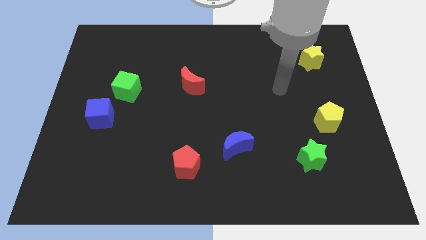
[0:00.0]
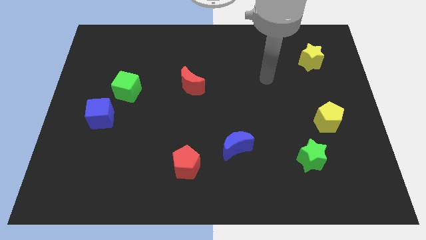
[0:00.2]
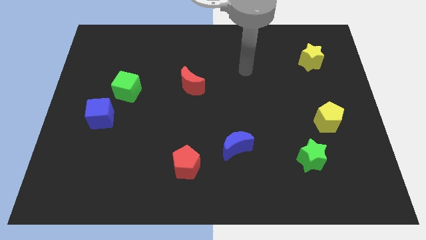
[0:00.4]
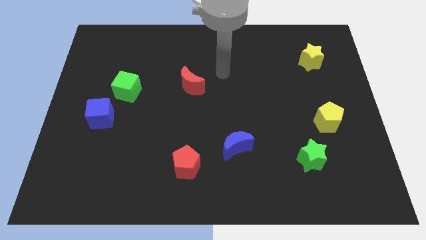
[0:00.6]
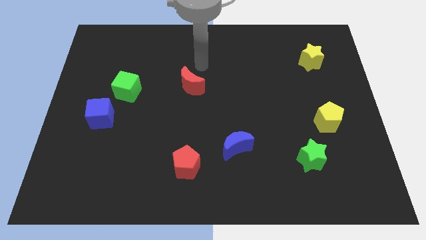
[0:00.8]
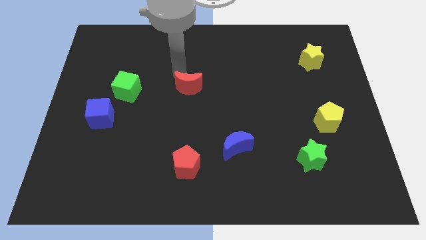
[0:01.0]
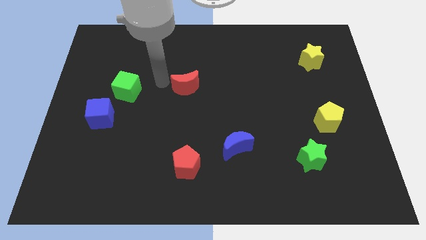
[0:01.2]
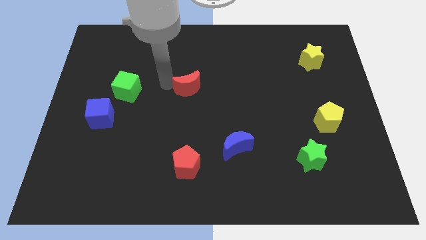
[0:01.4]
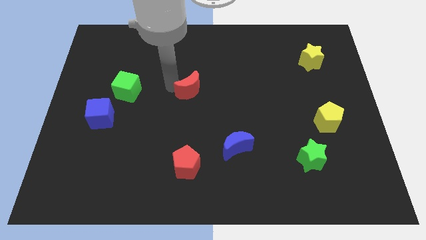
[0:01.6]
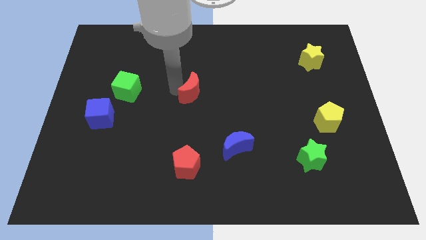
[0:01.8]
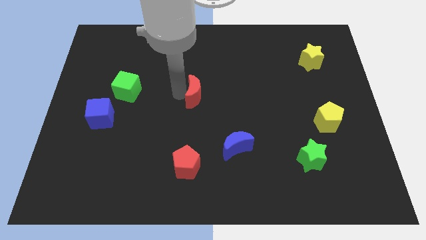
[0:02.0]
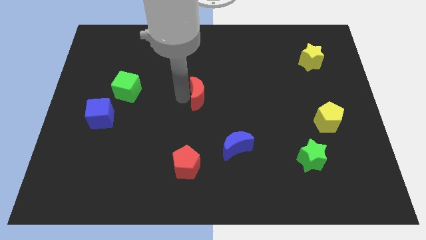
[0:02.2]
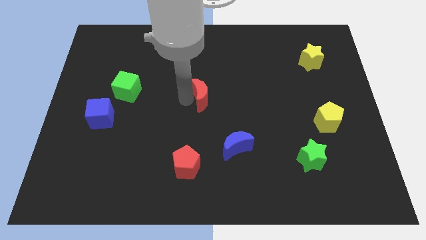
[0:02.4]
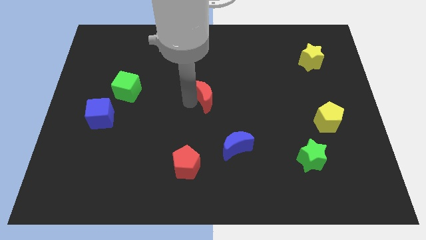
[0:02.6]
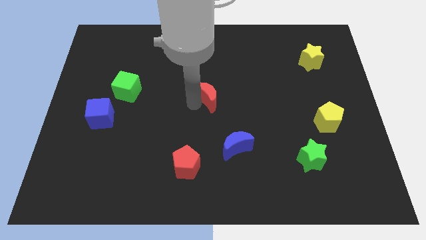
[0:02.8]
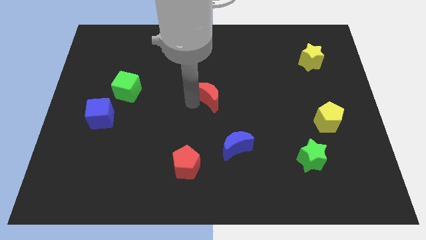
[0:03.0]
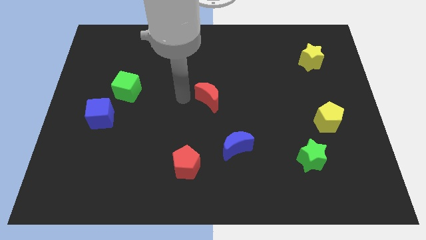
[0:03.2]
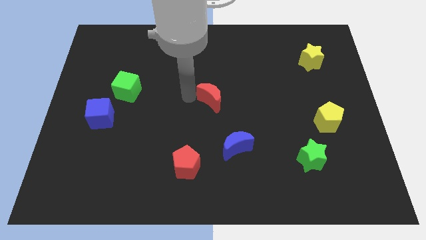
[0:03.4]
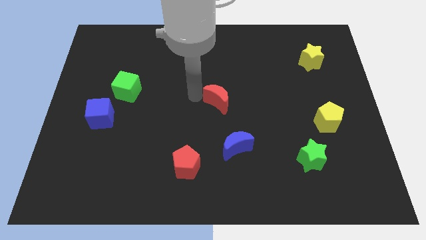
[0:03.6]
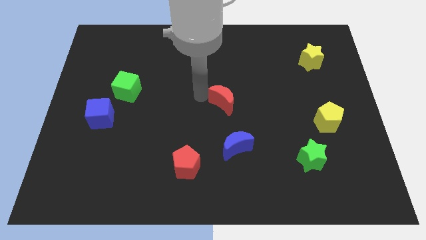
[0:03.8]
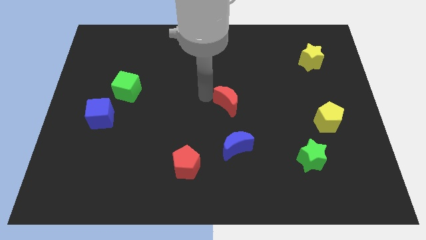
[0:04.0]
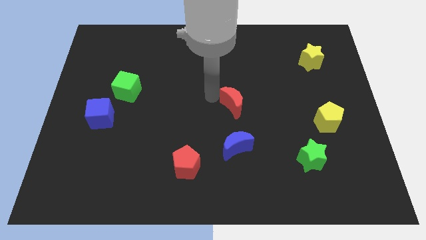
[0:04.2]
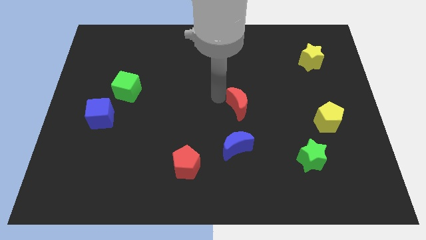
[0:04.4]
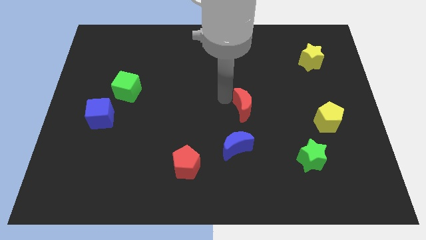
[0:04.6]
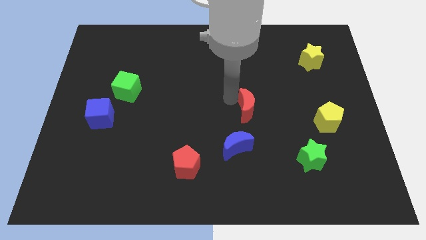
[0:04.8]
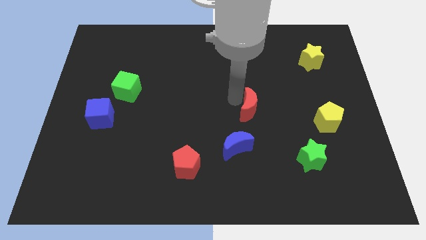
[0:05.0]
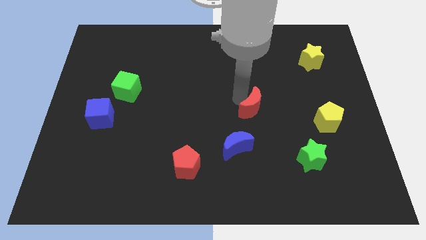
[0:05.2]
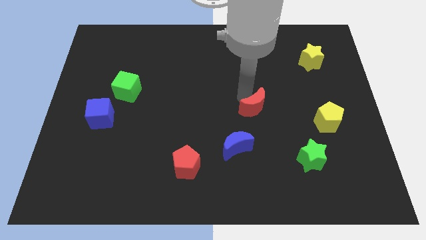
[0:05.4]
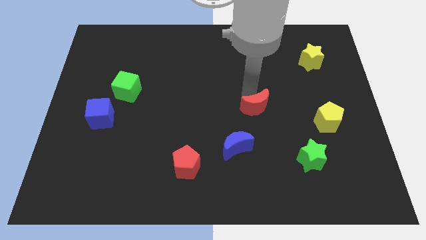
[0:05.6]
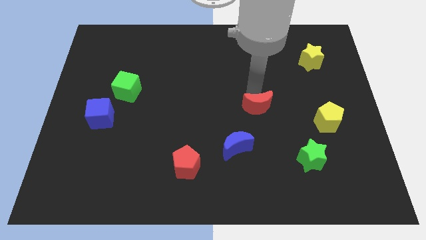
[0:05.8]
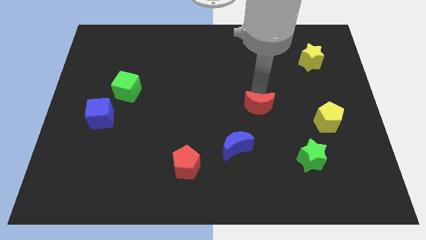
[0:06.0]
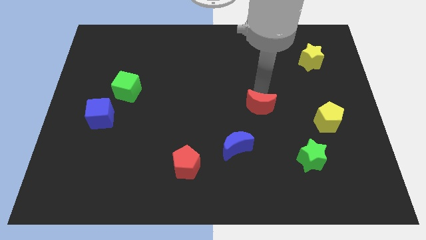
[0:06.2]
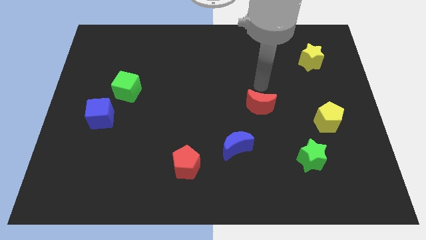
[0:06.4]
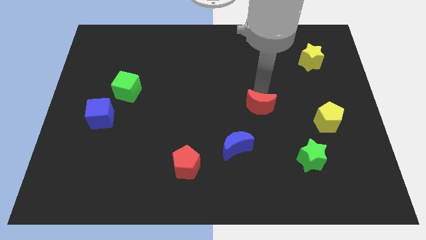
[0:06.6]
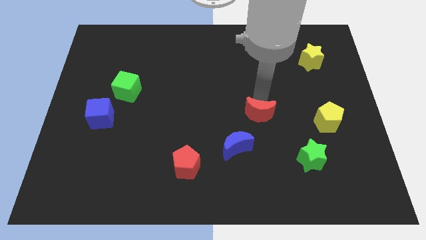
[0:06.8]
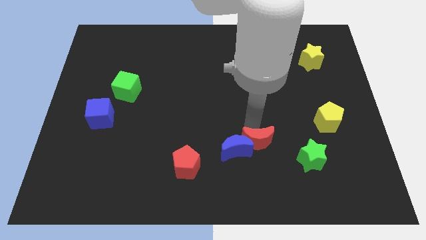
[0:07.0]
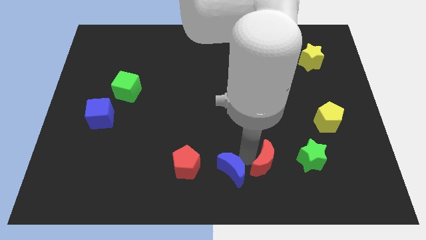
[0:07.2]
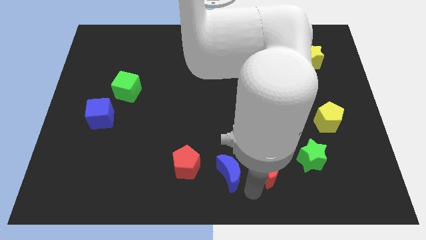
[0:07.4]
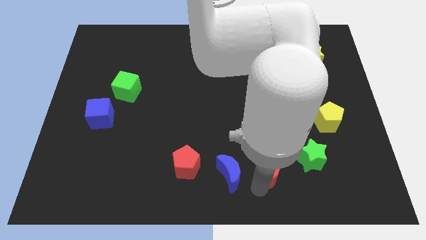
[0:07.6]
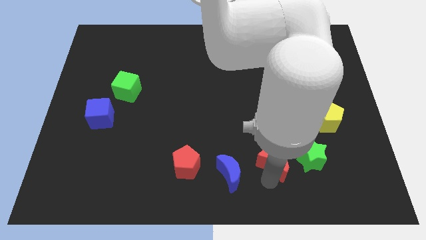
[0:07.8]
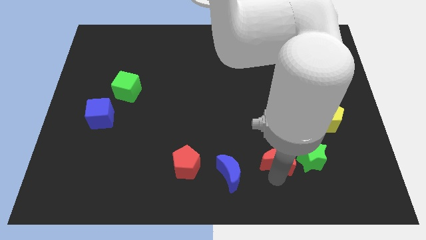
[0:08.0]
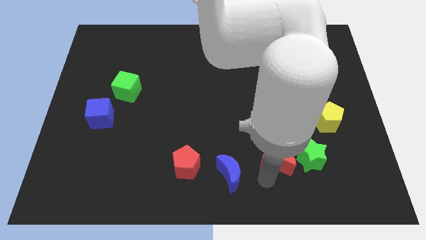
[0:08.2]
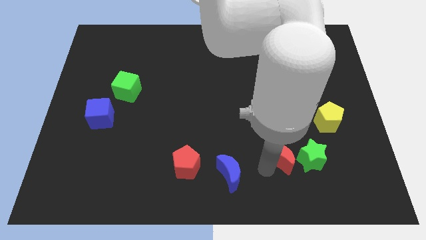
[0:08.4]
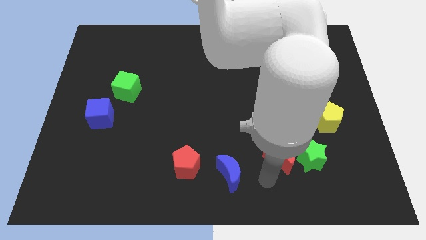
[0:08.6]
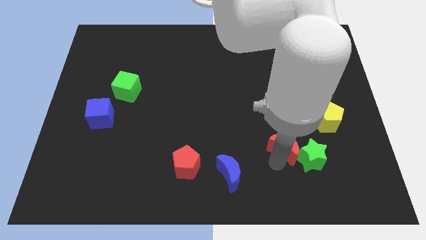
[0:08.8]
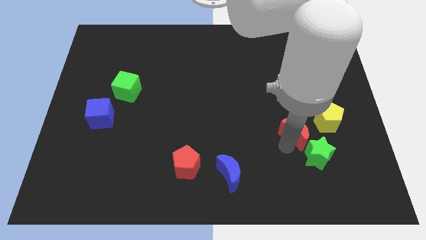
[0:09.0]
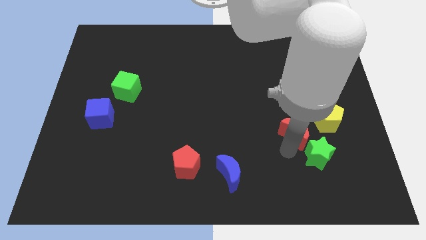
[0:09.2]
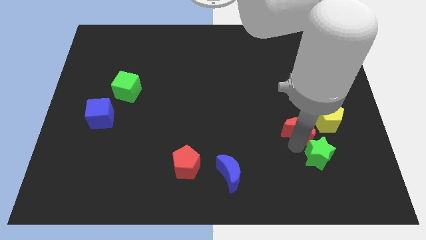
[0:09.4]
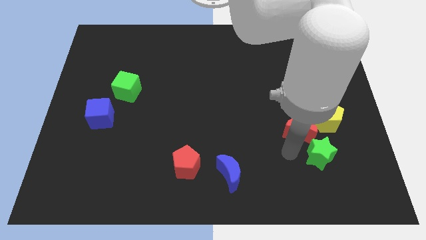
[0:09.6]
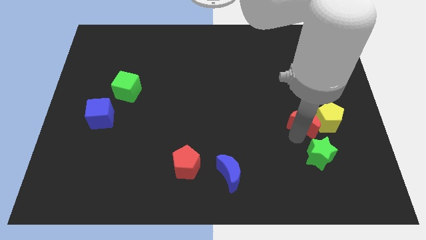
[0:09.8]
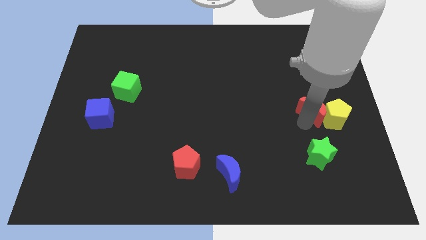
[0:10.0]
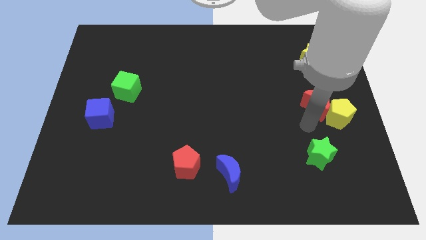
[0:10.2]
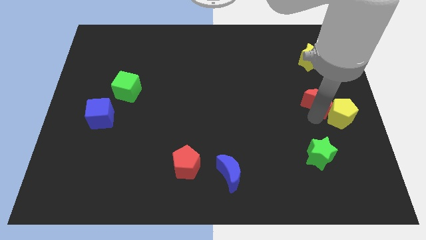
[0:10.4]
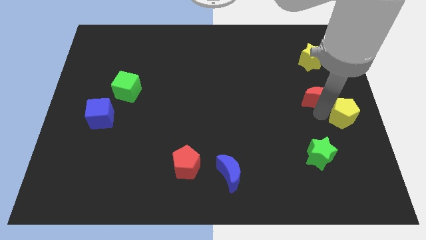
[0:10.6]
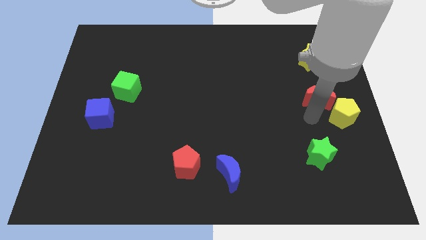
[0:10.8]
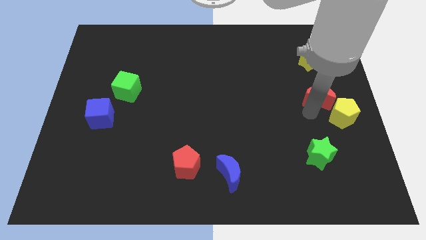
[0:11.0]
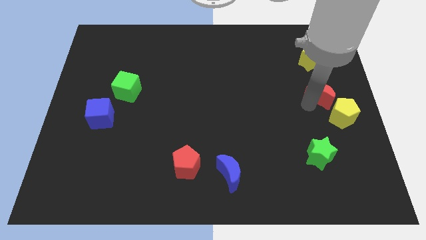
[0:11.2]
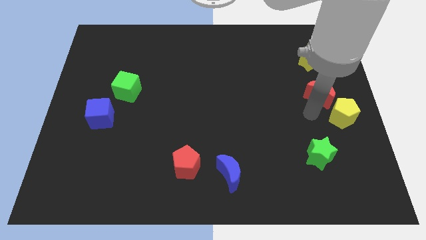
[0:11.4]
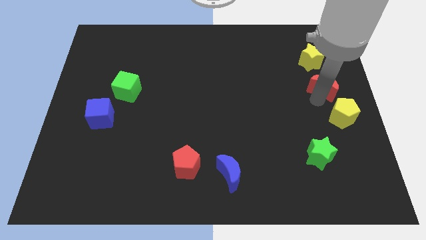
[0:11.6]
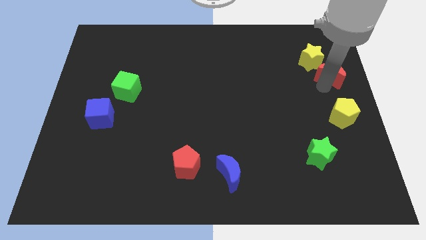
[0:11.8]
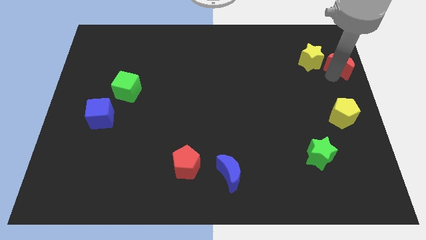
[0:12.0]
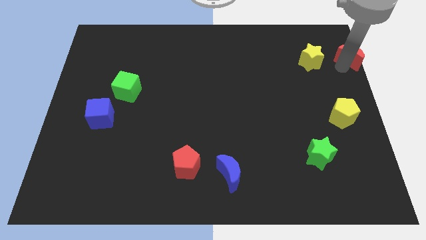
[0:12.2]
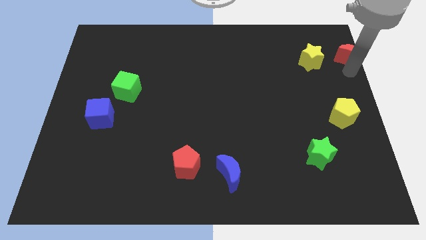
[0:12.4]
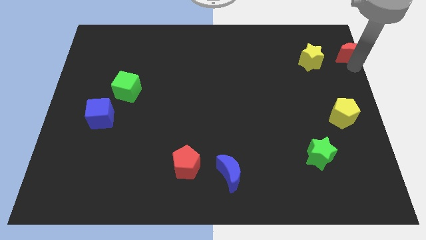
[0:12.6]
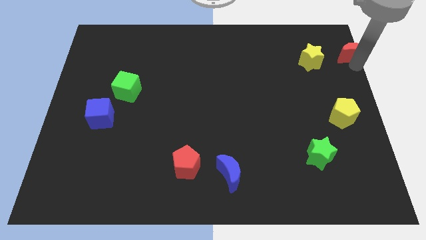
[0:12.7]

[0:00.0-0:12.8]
push the red moon to the top right
